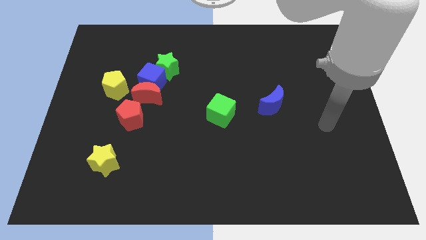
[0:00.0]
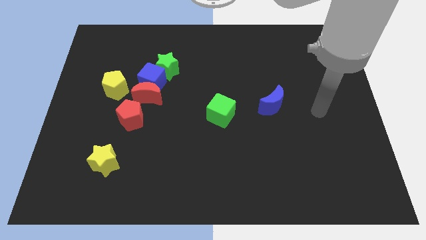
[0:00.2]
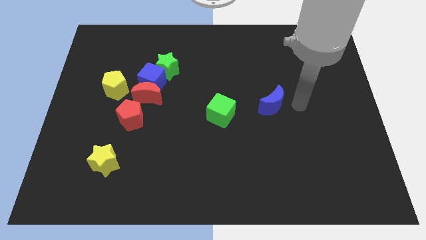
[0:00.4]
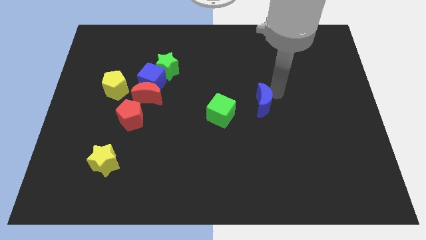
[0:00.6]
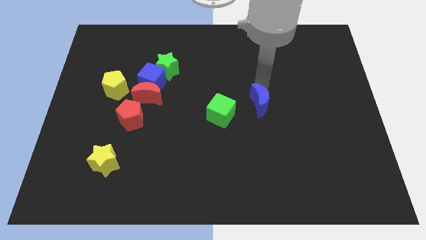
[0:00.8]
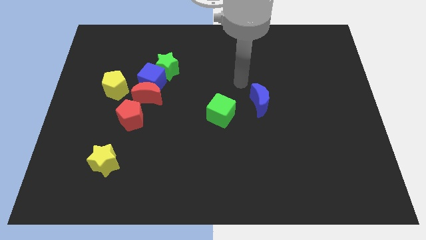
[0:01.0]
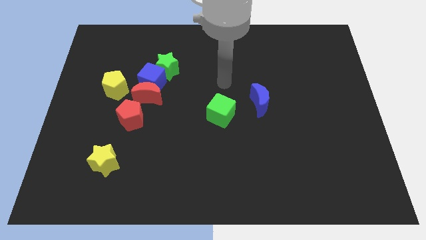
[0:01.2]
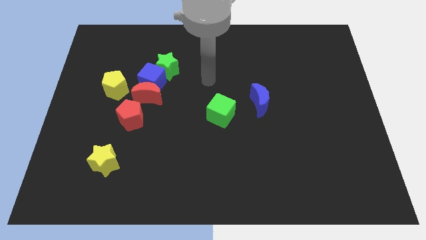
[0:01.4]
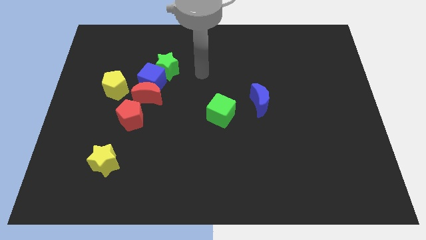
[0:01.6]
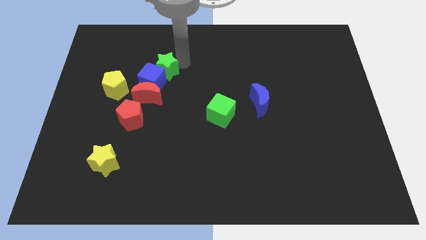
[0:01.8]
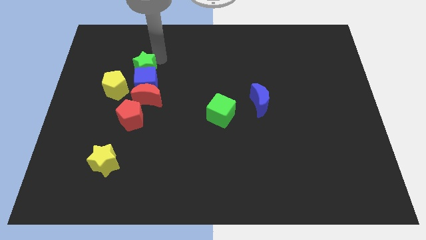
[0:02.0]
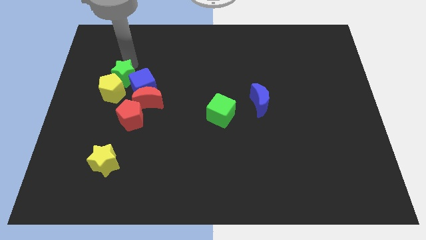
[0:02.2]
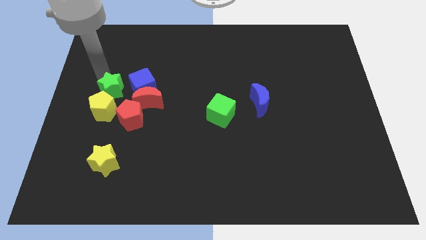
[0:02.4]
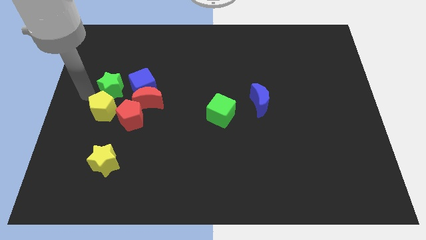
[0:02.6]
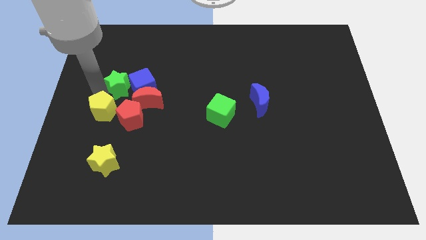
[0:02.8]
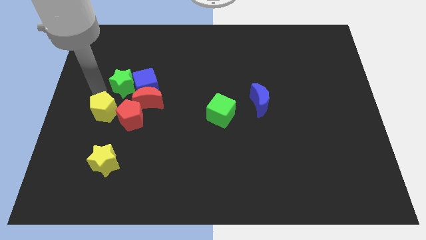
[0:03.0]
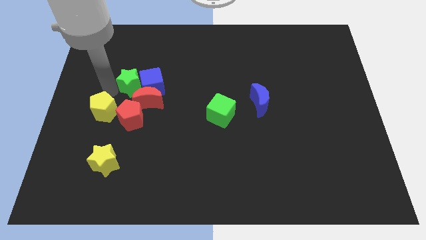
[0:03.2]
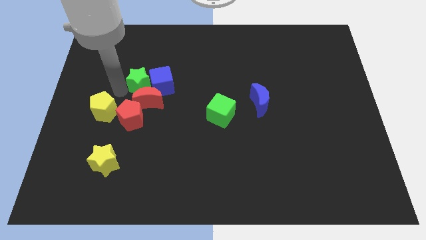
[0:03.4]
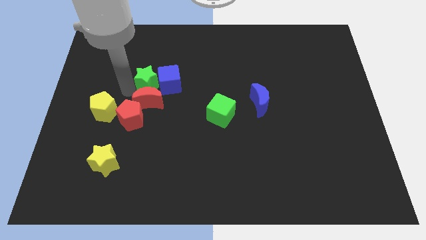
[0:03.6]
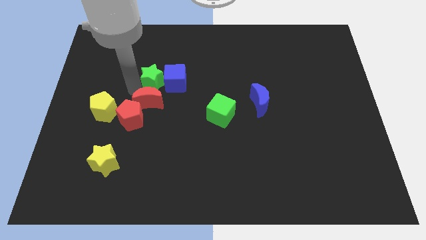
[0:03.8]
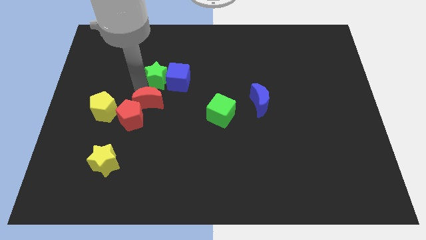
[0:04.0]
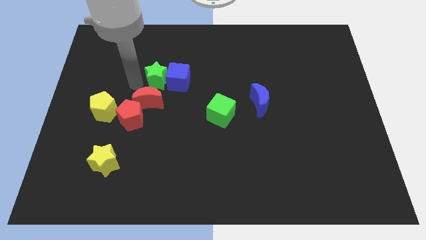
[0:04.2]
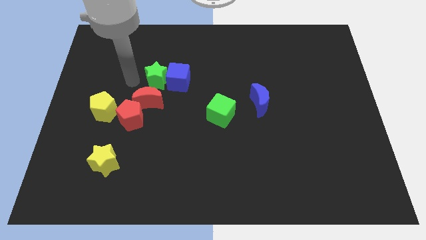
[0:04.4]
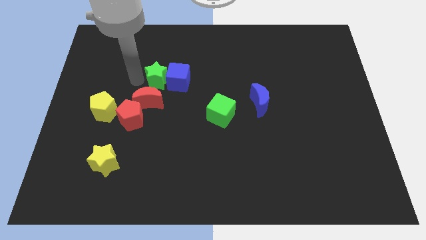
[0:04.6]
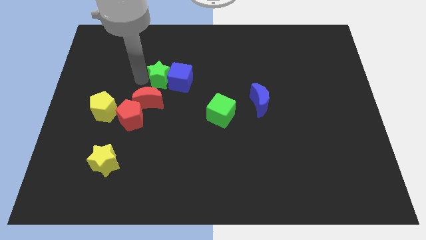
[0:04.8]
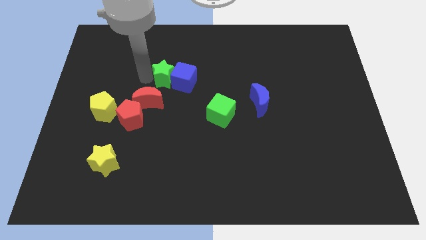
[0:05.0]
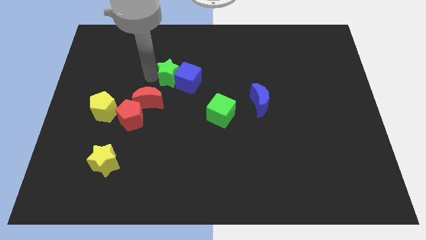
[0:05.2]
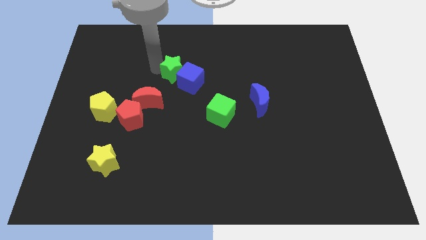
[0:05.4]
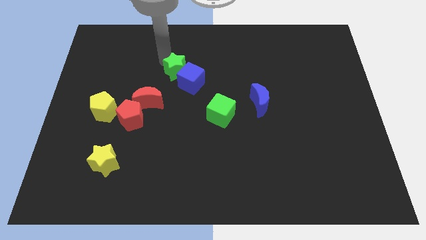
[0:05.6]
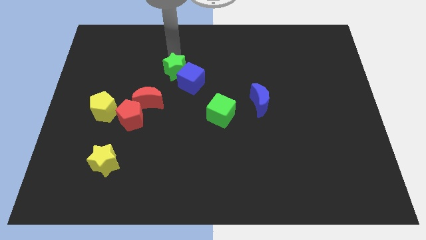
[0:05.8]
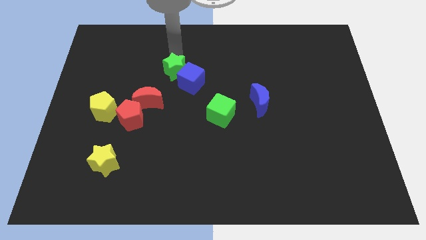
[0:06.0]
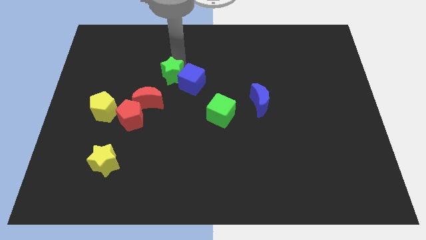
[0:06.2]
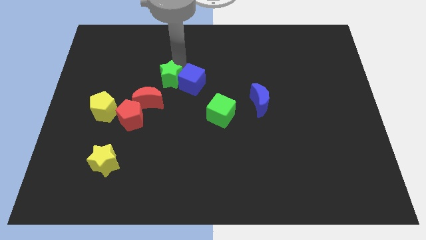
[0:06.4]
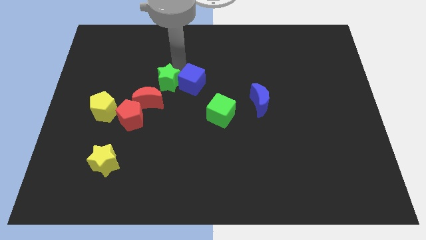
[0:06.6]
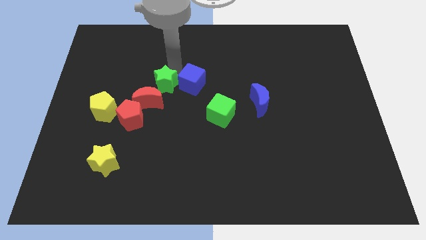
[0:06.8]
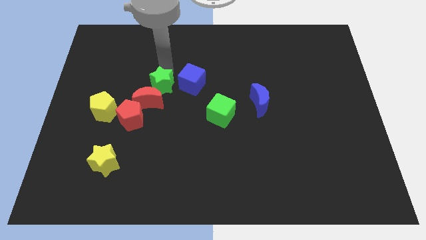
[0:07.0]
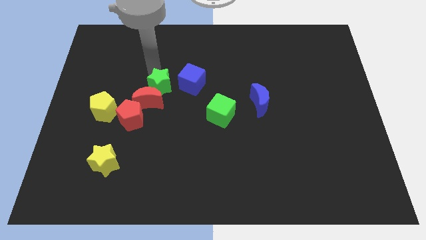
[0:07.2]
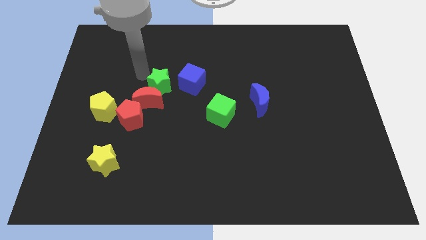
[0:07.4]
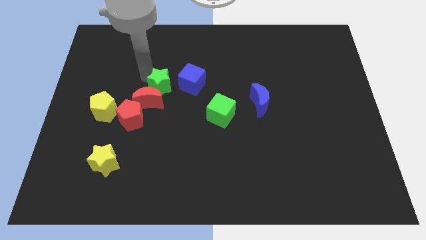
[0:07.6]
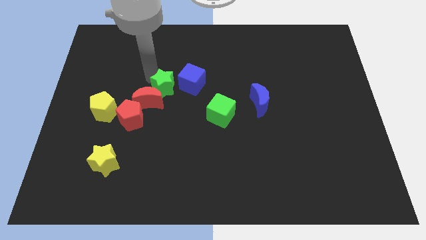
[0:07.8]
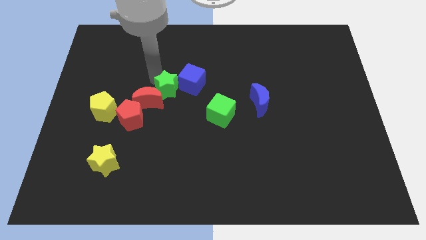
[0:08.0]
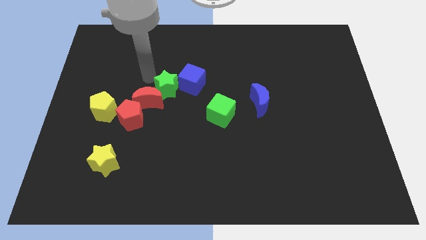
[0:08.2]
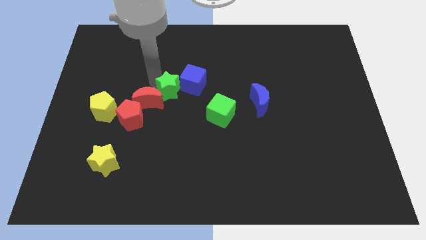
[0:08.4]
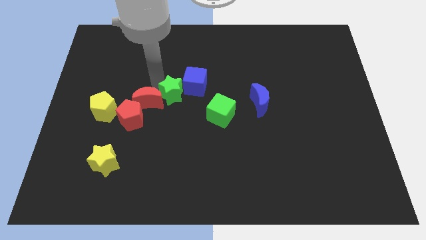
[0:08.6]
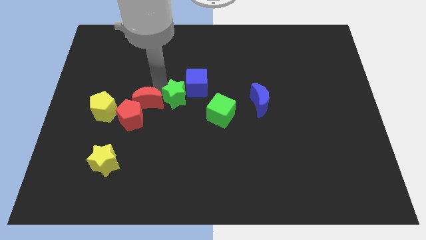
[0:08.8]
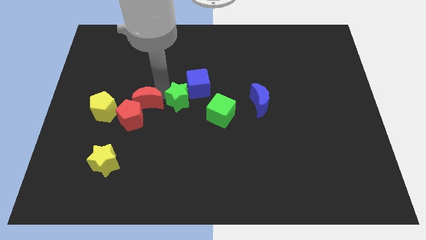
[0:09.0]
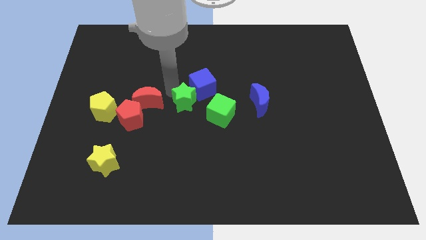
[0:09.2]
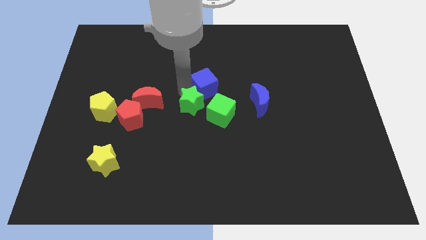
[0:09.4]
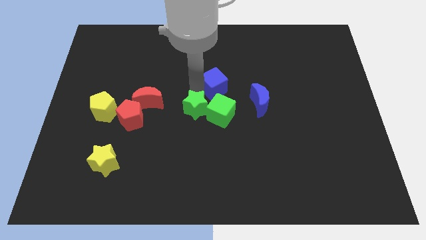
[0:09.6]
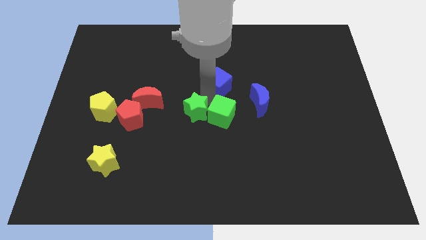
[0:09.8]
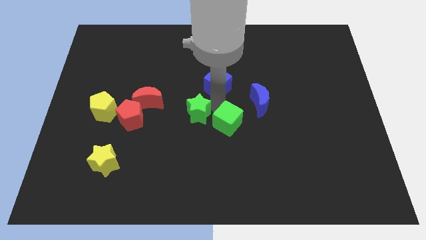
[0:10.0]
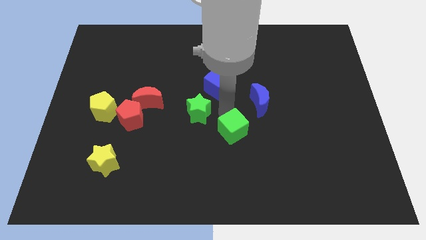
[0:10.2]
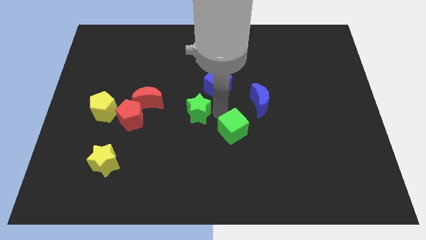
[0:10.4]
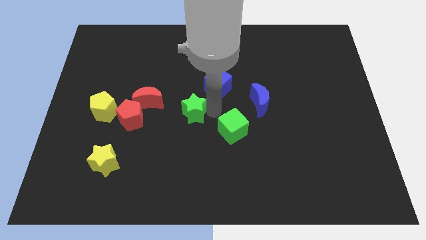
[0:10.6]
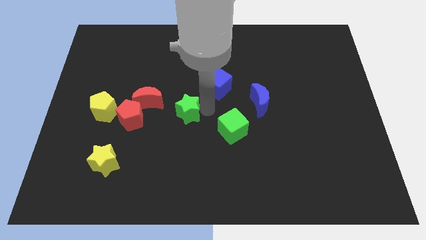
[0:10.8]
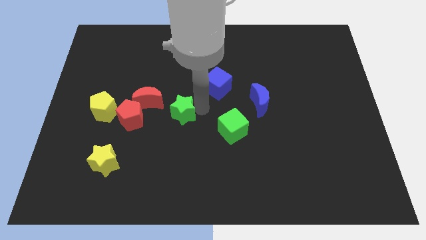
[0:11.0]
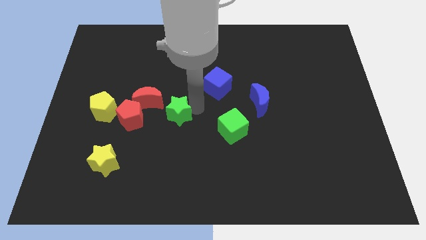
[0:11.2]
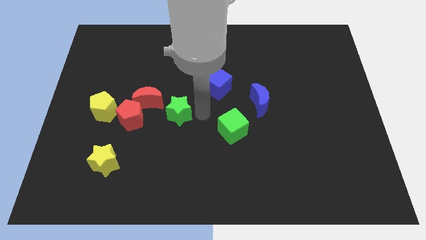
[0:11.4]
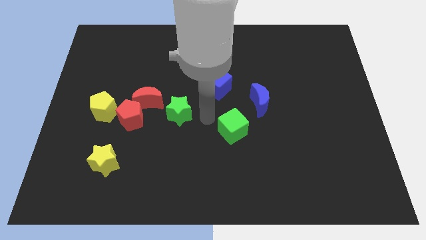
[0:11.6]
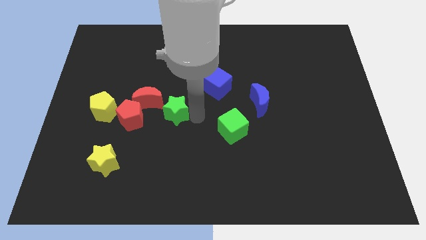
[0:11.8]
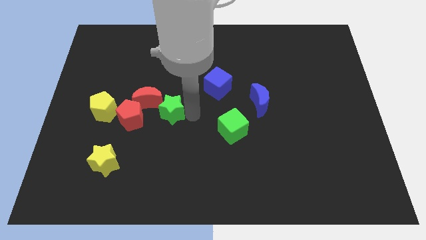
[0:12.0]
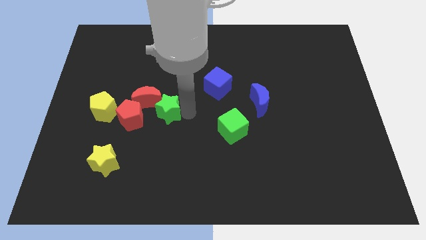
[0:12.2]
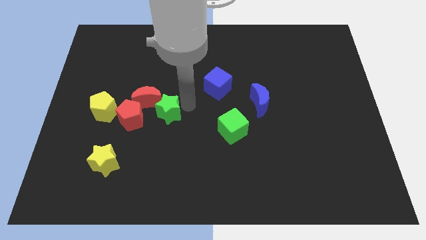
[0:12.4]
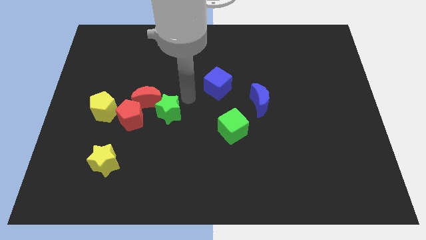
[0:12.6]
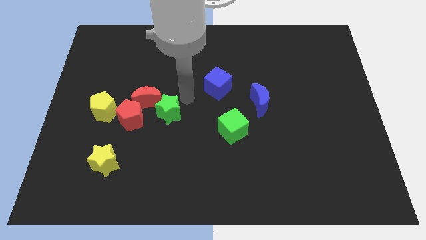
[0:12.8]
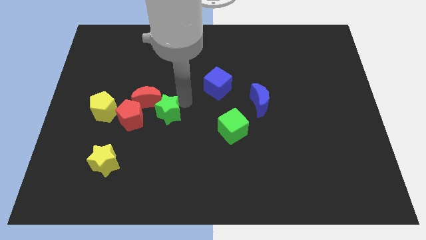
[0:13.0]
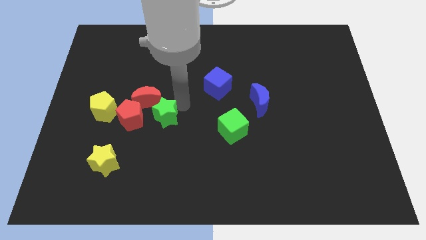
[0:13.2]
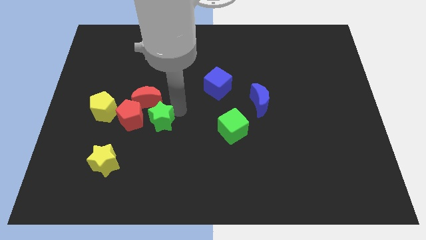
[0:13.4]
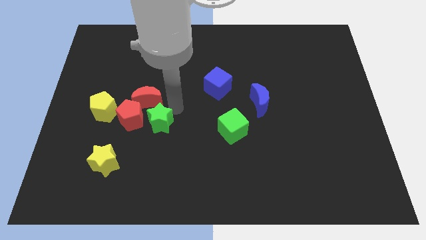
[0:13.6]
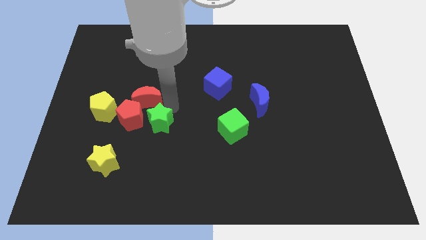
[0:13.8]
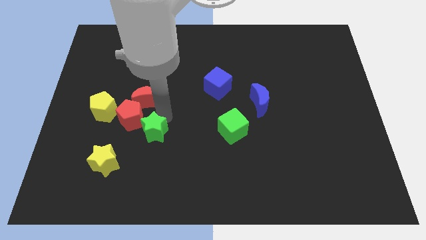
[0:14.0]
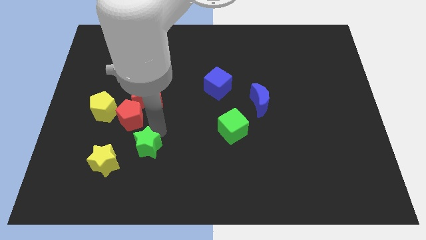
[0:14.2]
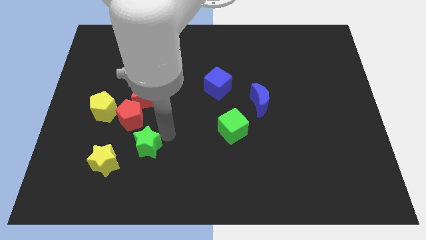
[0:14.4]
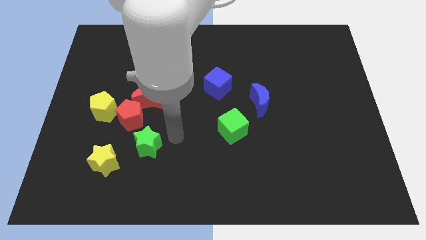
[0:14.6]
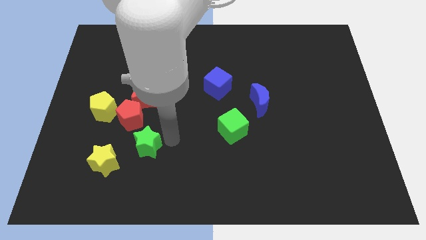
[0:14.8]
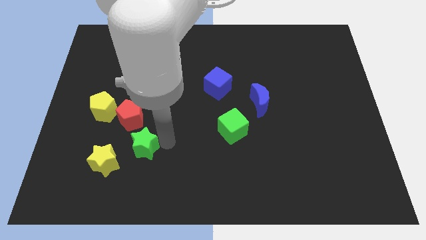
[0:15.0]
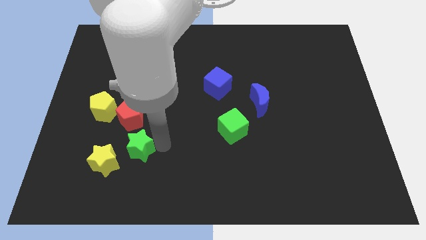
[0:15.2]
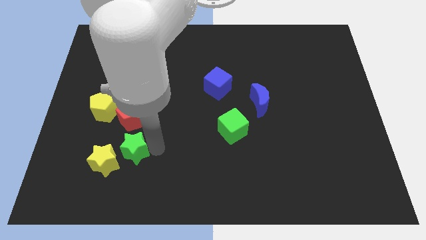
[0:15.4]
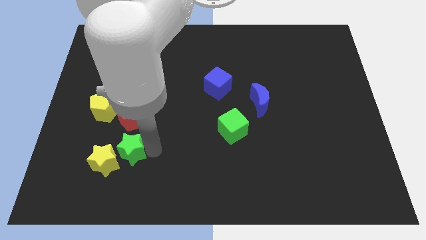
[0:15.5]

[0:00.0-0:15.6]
slide the green star to the yellow star

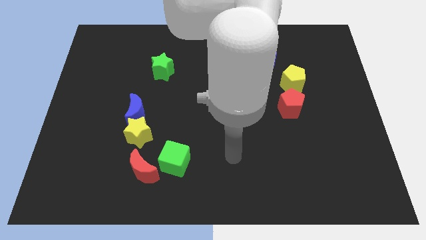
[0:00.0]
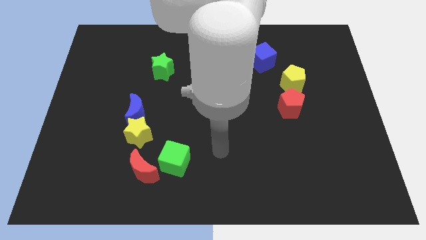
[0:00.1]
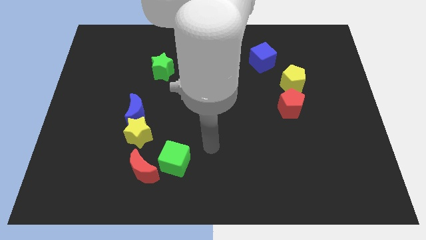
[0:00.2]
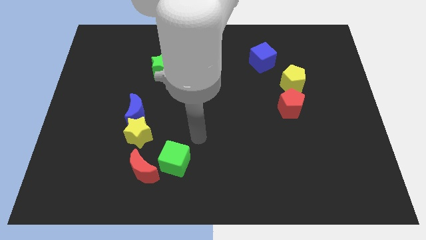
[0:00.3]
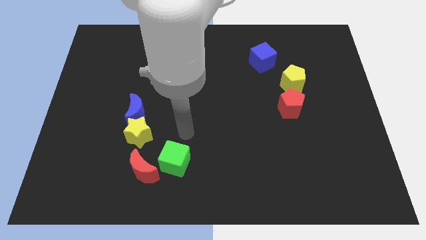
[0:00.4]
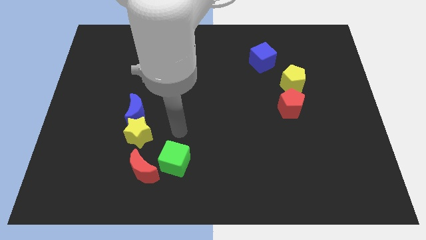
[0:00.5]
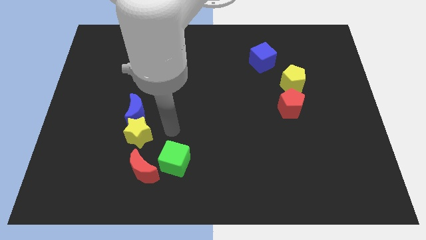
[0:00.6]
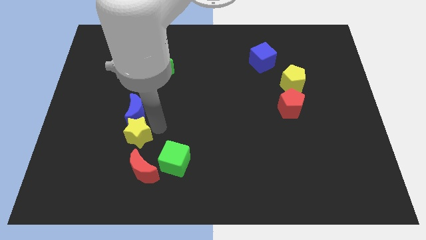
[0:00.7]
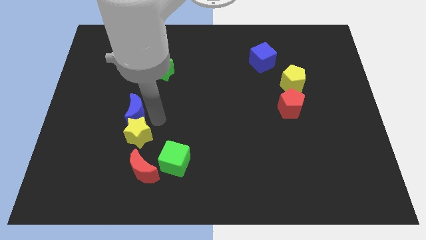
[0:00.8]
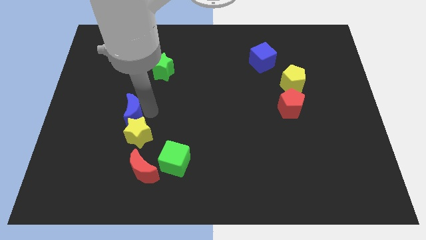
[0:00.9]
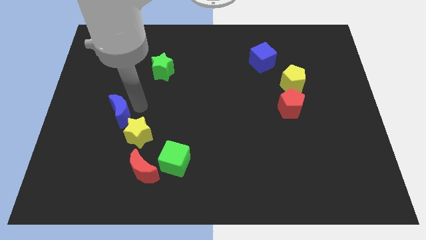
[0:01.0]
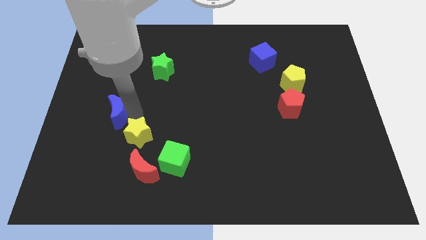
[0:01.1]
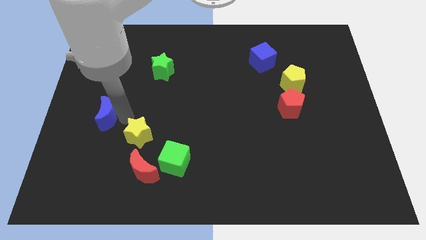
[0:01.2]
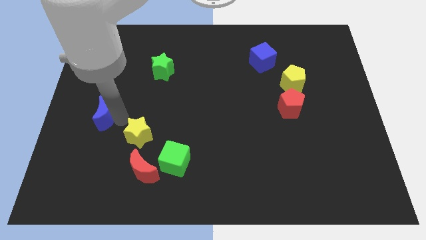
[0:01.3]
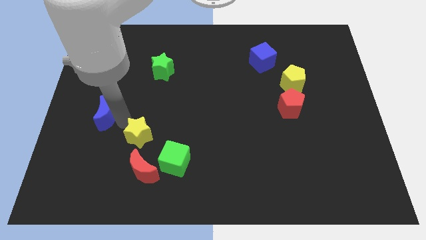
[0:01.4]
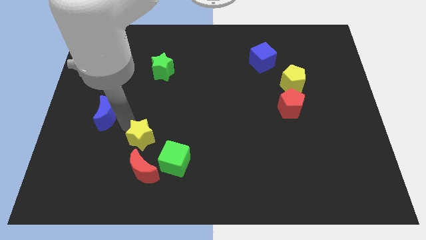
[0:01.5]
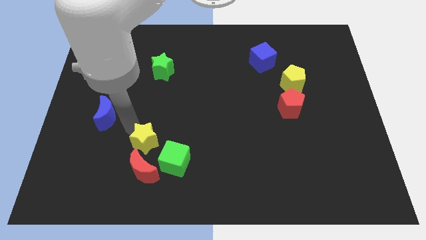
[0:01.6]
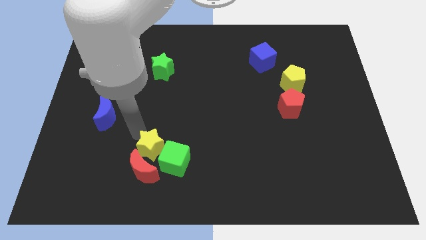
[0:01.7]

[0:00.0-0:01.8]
slide the yellow star next to the green cube
